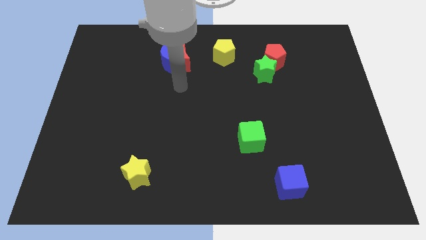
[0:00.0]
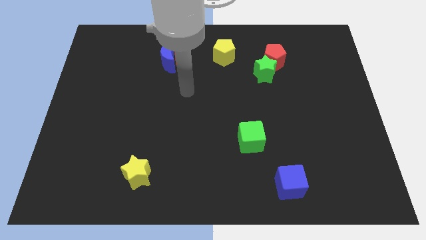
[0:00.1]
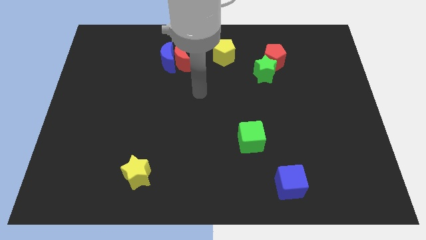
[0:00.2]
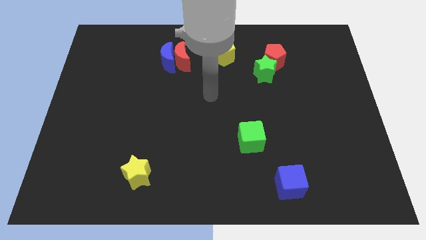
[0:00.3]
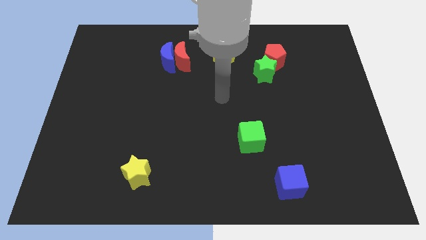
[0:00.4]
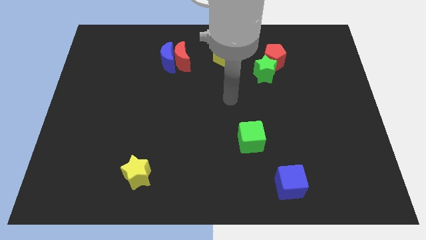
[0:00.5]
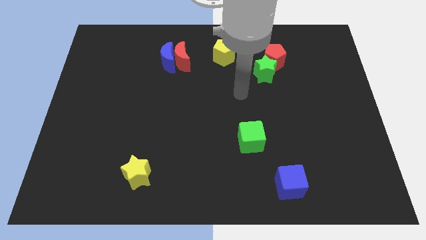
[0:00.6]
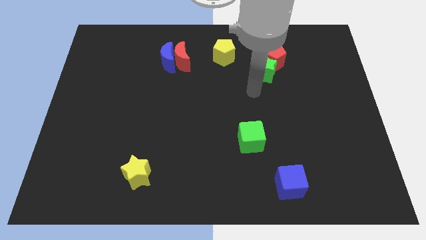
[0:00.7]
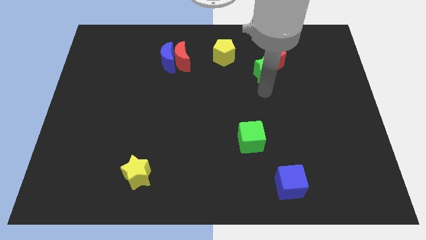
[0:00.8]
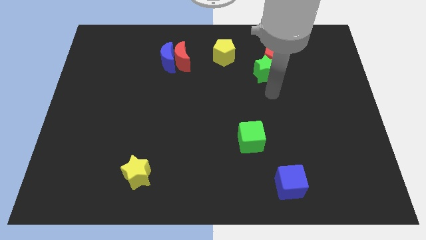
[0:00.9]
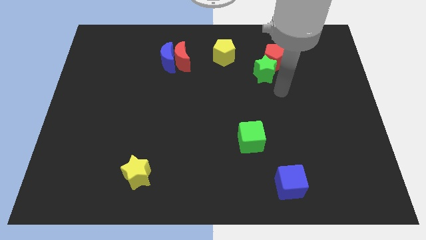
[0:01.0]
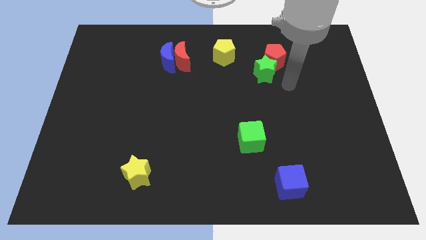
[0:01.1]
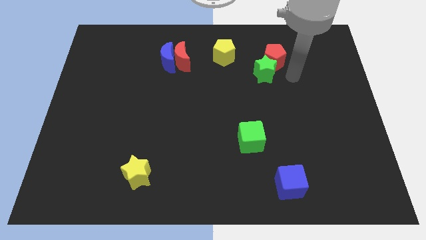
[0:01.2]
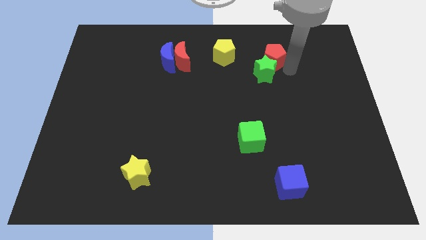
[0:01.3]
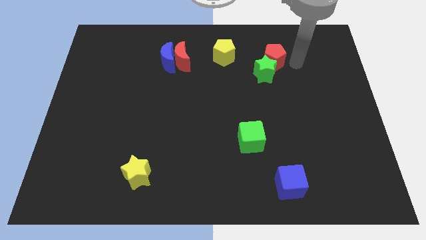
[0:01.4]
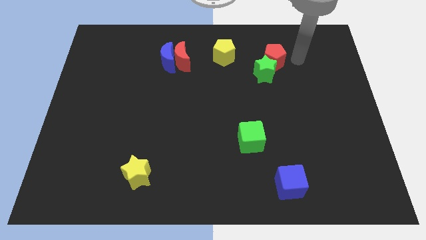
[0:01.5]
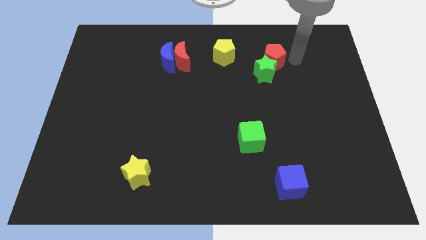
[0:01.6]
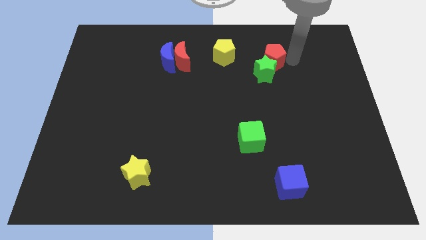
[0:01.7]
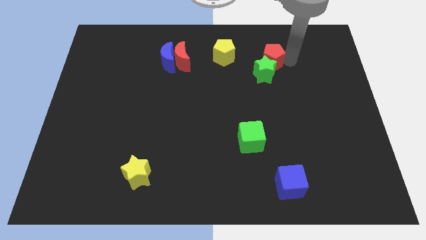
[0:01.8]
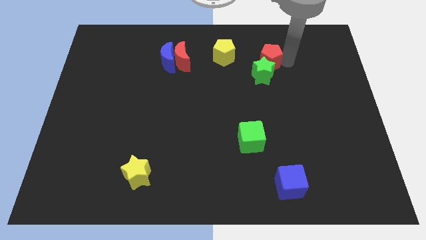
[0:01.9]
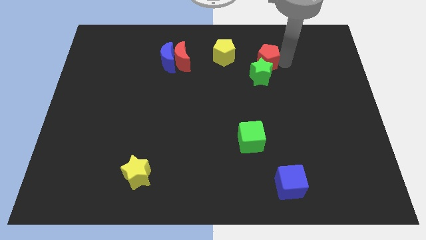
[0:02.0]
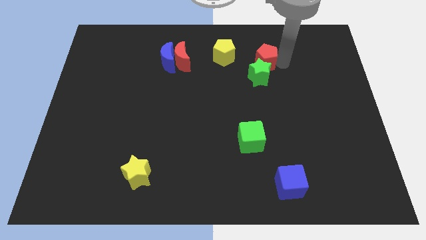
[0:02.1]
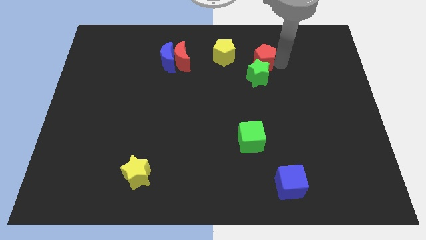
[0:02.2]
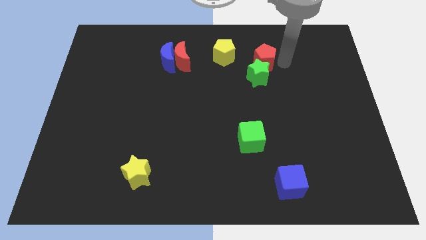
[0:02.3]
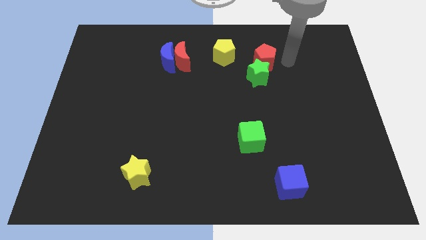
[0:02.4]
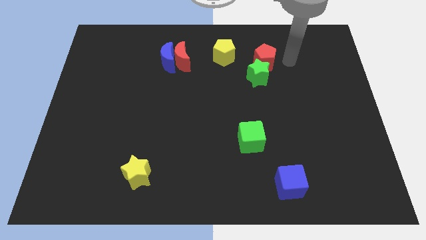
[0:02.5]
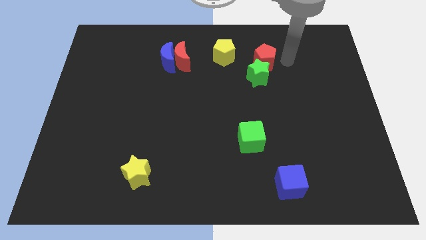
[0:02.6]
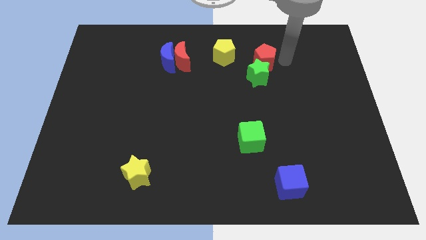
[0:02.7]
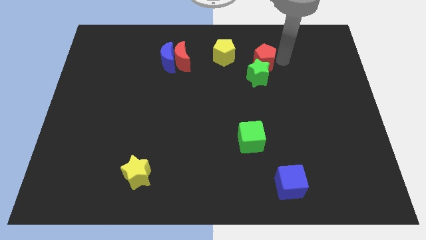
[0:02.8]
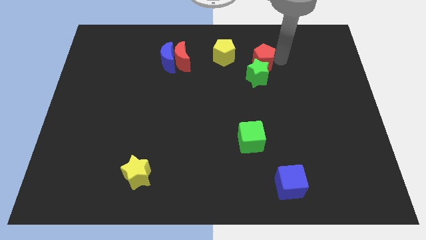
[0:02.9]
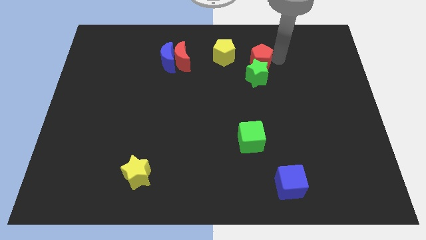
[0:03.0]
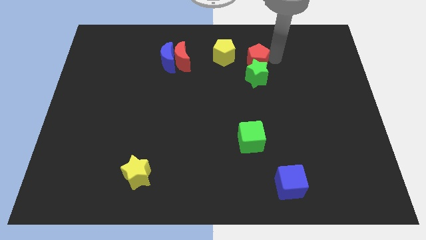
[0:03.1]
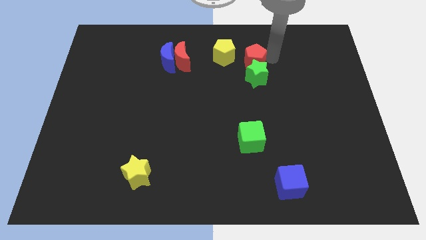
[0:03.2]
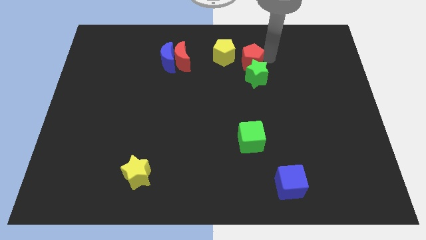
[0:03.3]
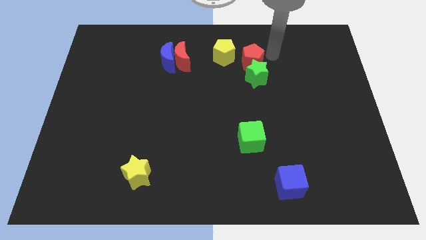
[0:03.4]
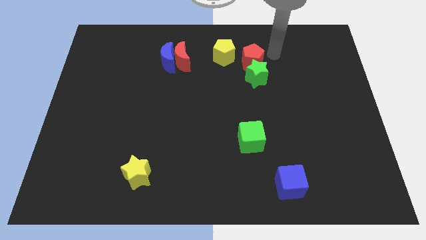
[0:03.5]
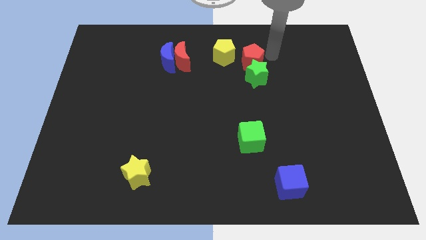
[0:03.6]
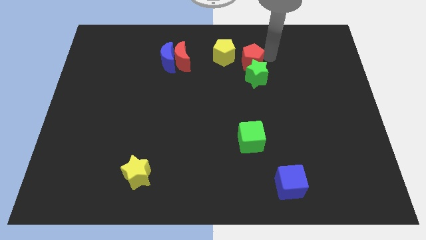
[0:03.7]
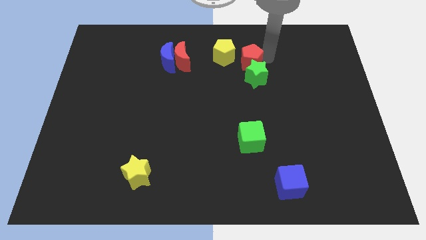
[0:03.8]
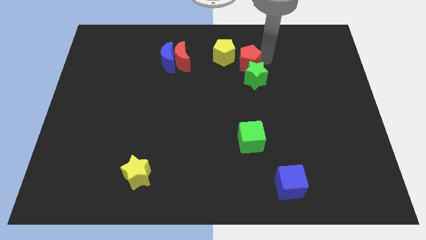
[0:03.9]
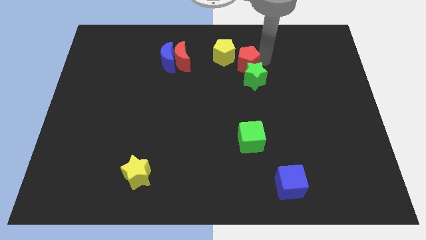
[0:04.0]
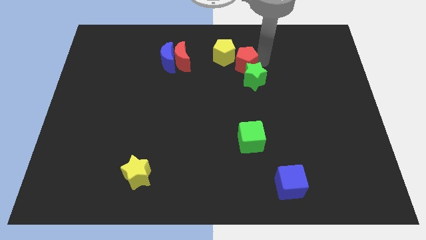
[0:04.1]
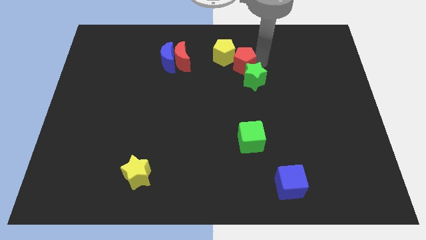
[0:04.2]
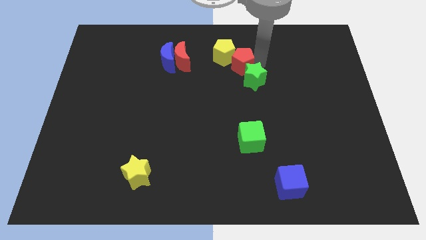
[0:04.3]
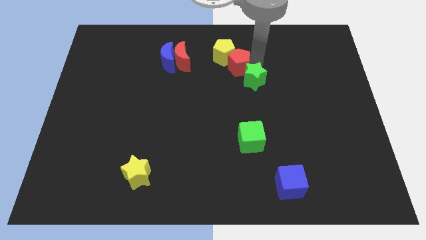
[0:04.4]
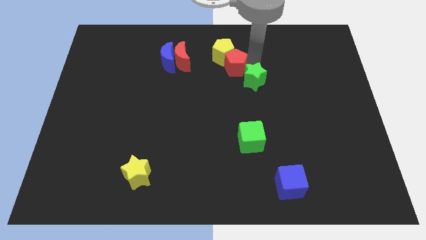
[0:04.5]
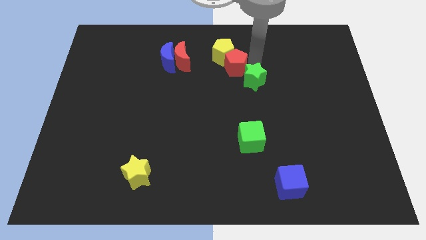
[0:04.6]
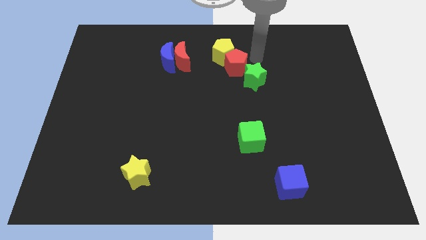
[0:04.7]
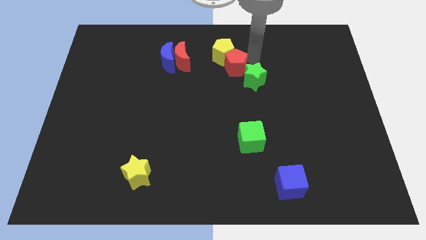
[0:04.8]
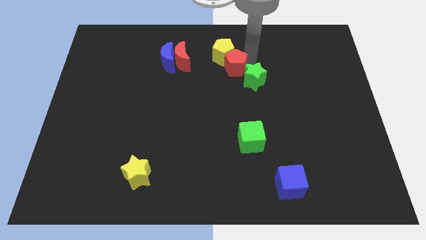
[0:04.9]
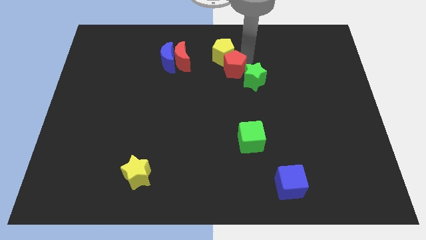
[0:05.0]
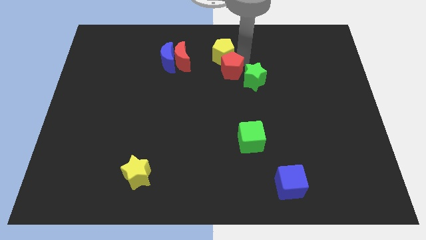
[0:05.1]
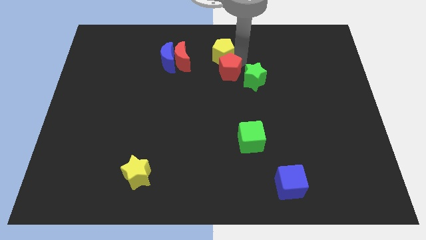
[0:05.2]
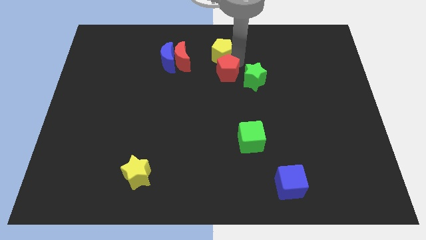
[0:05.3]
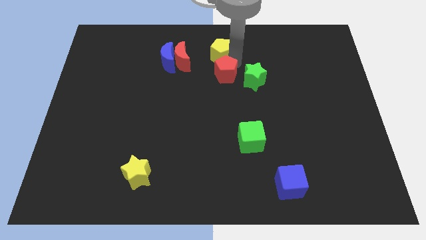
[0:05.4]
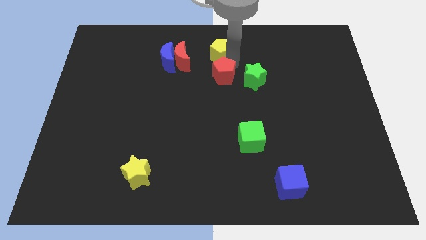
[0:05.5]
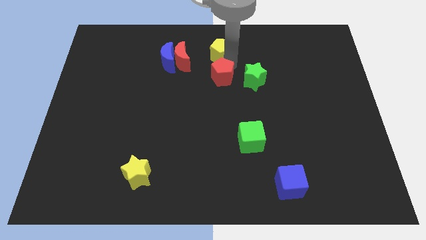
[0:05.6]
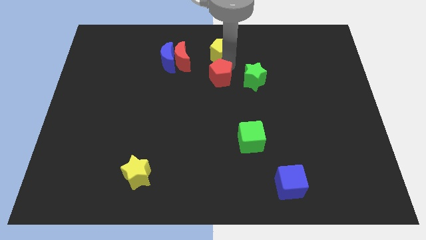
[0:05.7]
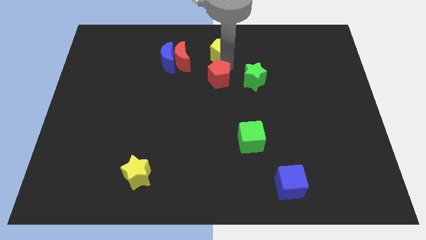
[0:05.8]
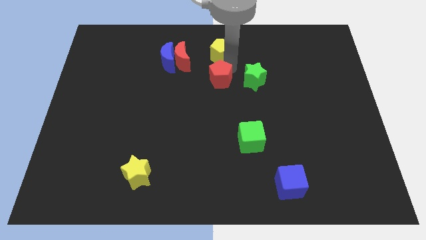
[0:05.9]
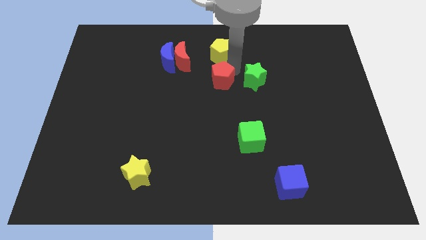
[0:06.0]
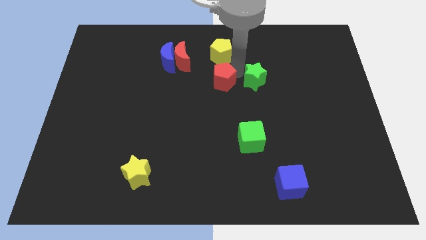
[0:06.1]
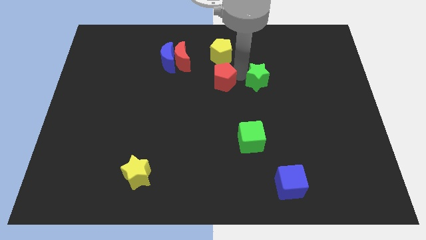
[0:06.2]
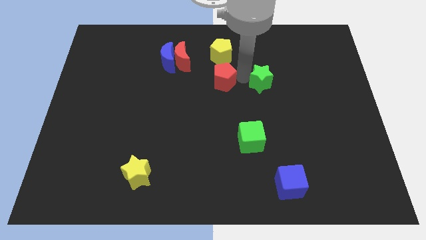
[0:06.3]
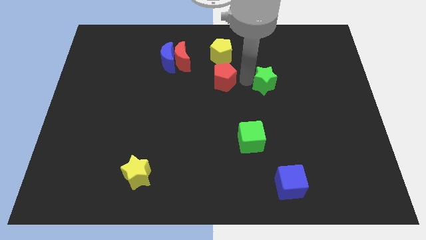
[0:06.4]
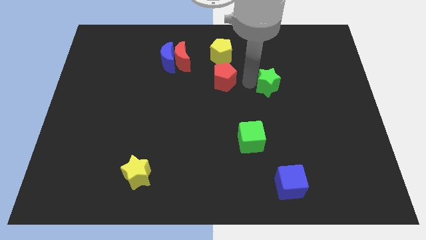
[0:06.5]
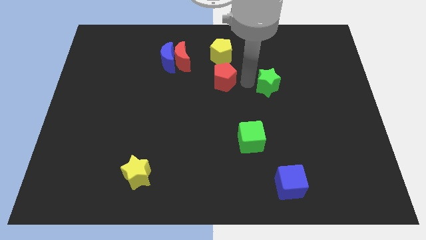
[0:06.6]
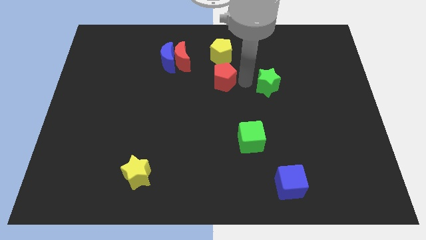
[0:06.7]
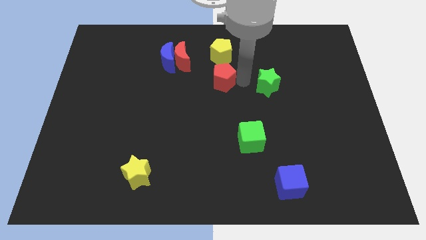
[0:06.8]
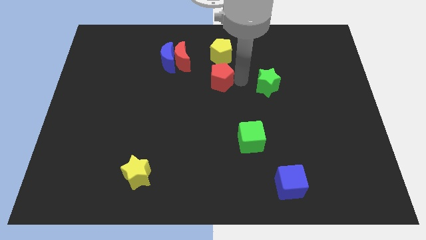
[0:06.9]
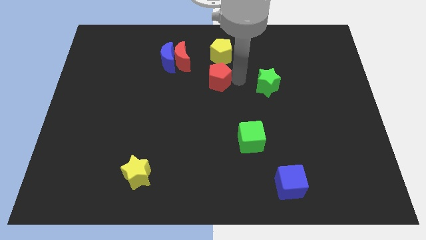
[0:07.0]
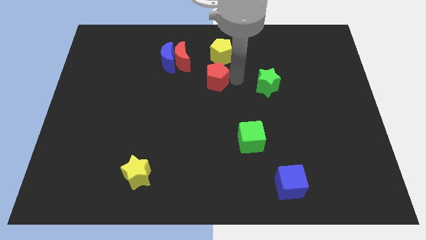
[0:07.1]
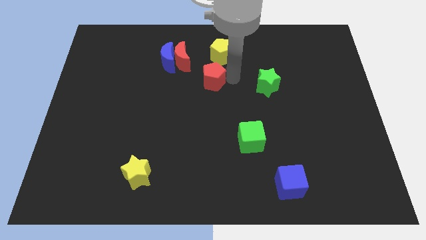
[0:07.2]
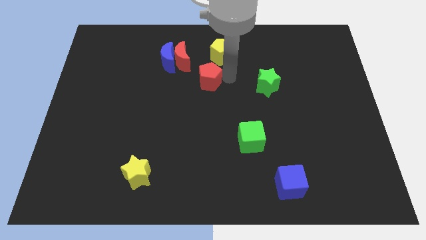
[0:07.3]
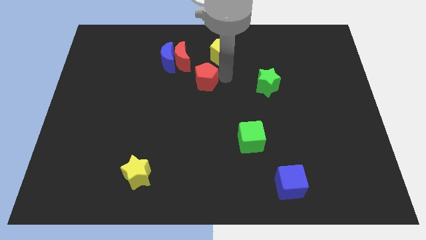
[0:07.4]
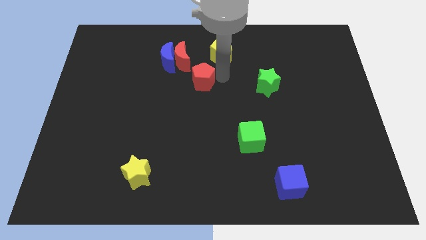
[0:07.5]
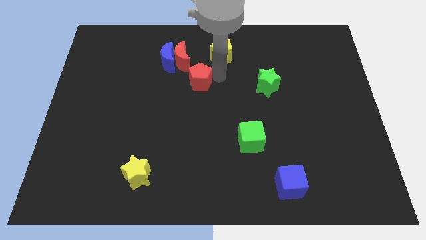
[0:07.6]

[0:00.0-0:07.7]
push the red pentagon to the bottom of the red moon
